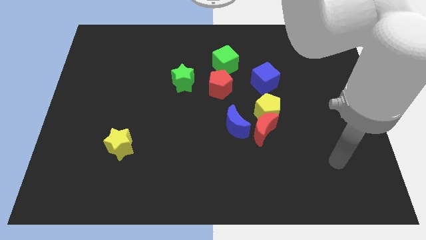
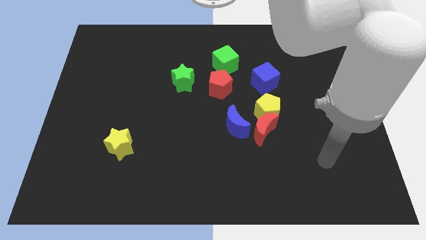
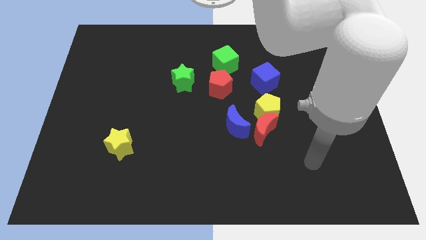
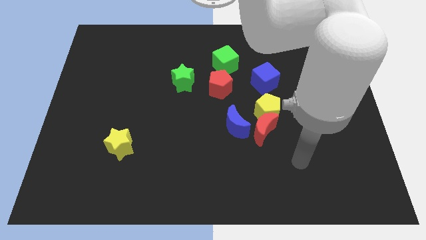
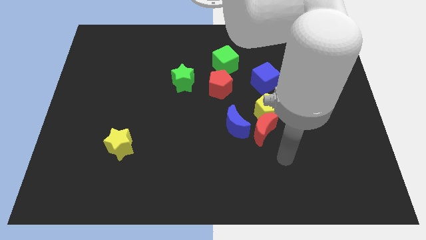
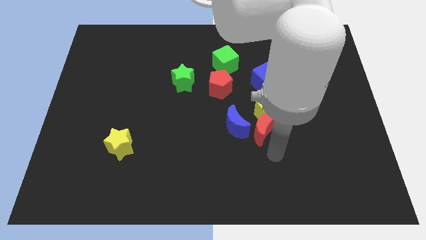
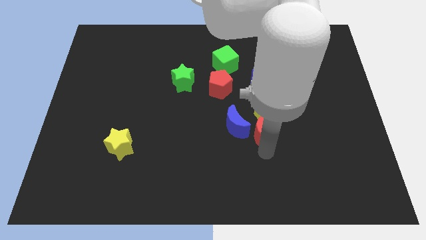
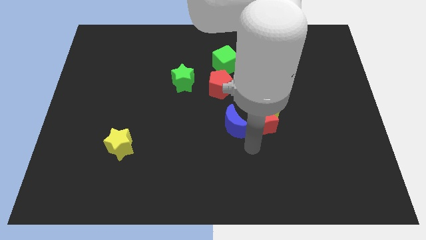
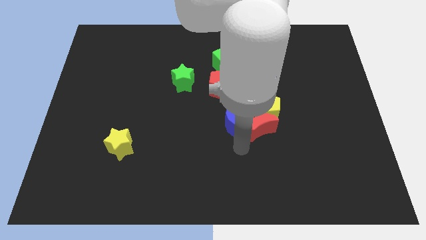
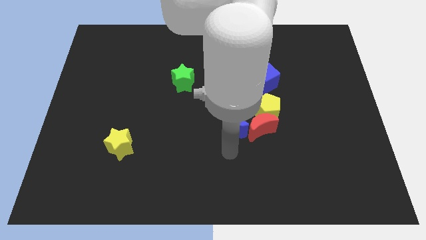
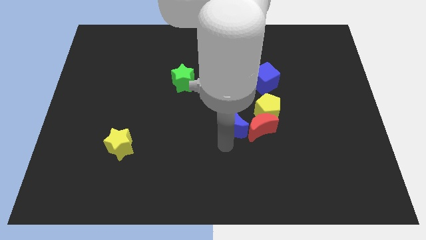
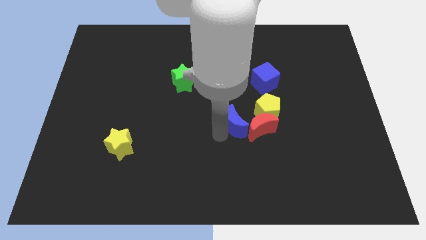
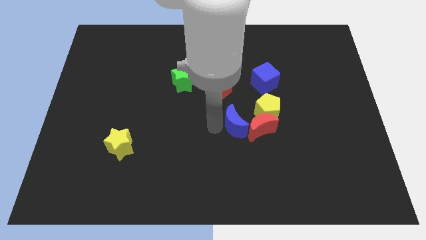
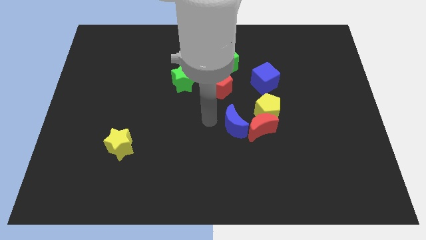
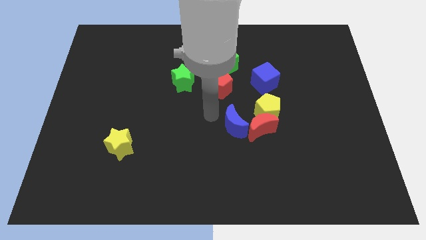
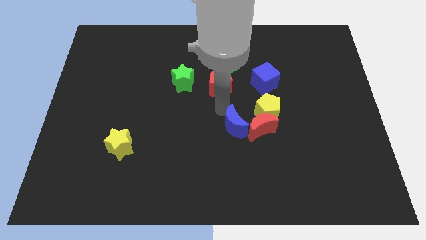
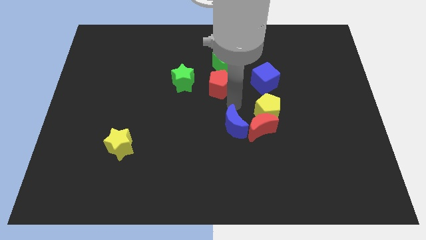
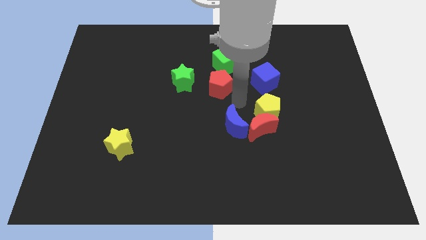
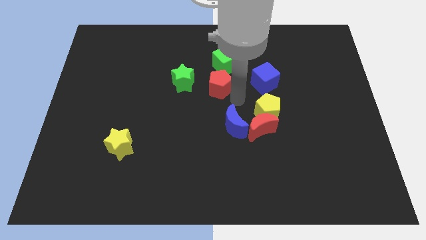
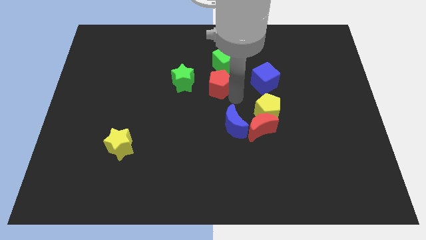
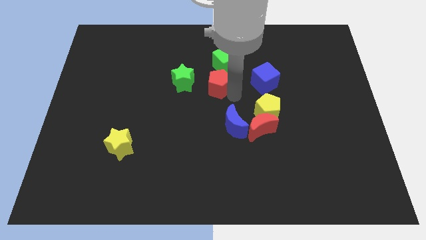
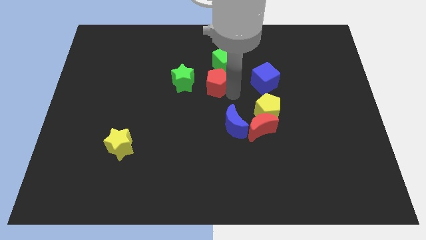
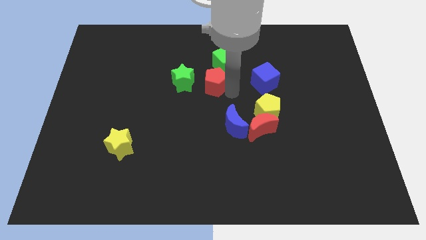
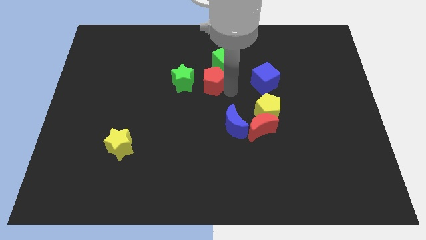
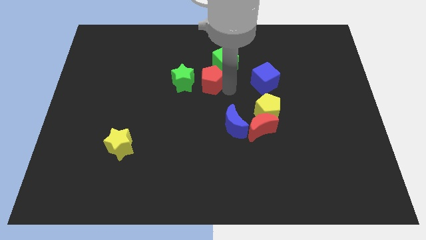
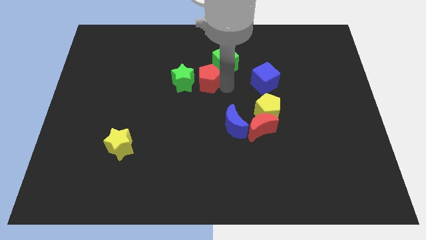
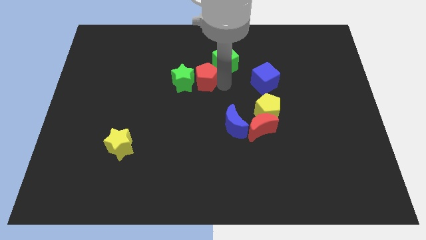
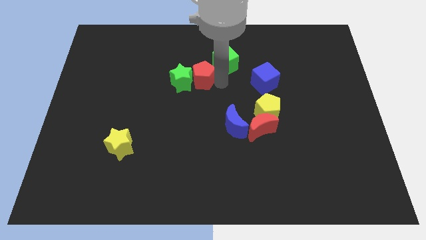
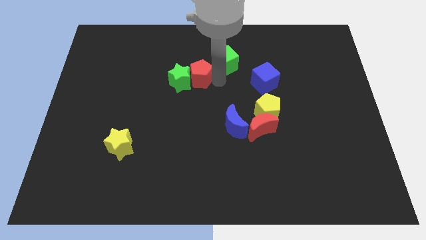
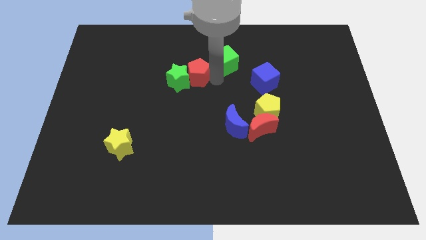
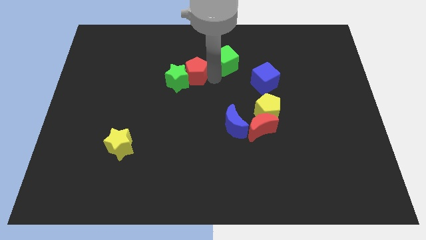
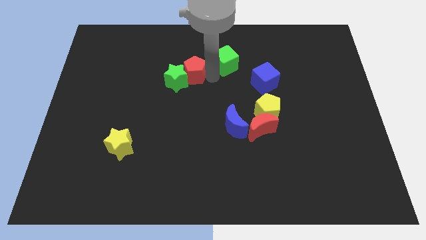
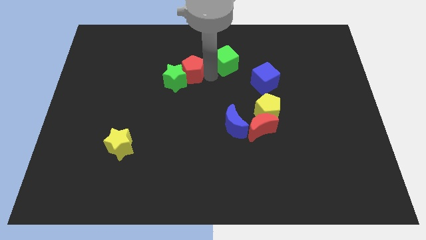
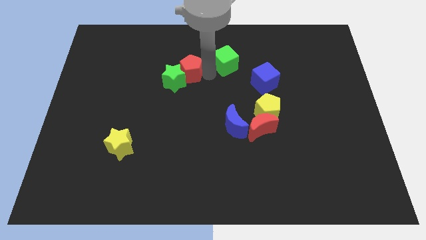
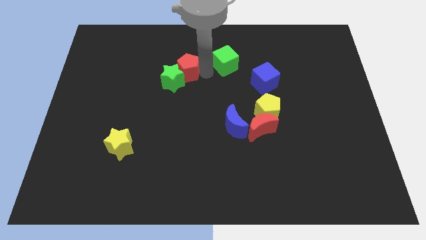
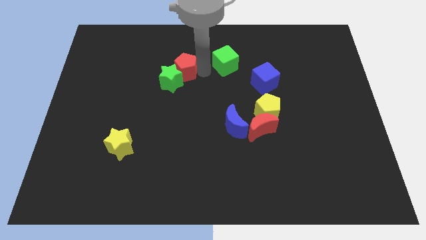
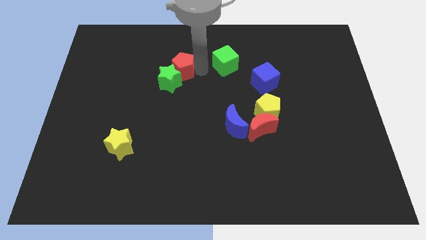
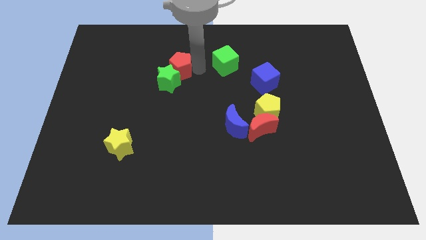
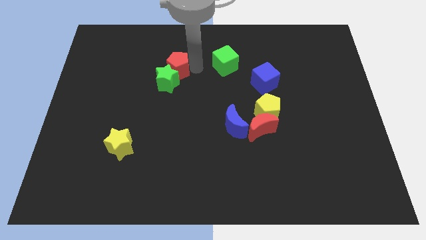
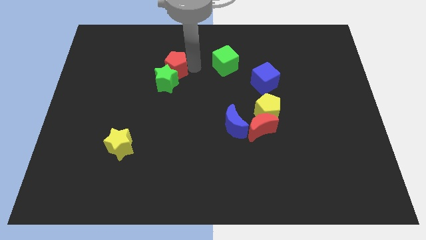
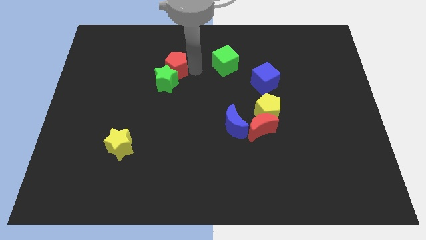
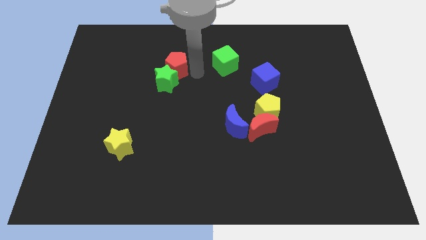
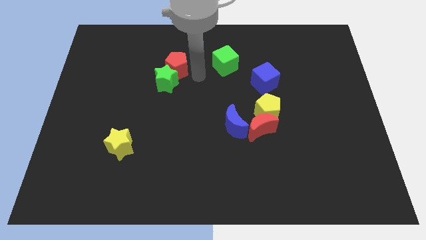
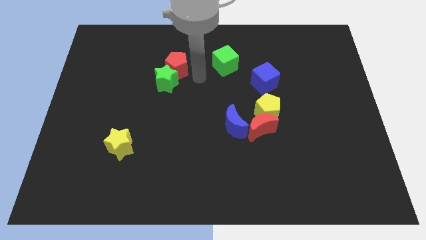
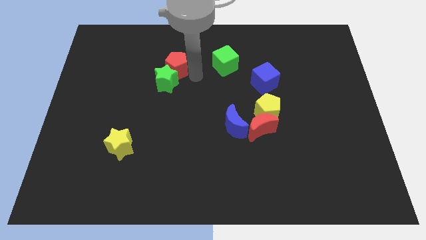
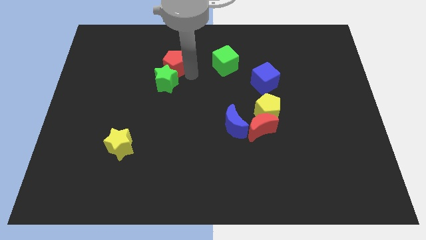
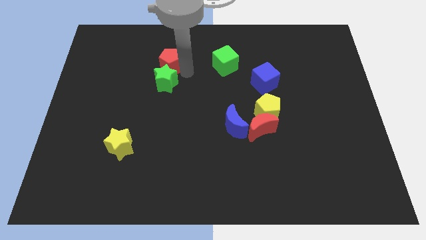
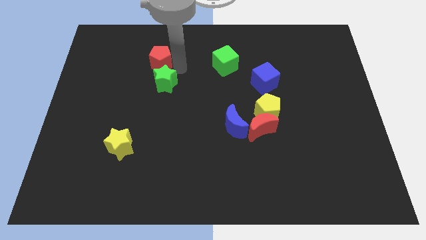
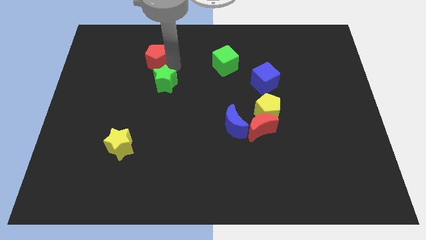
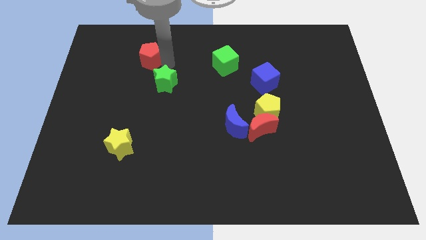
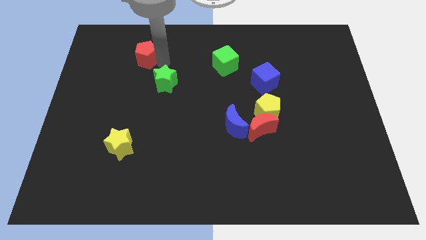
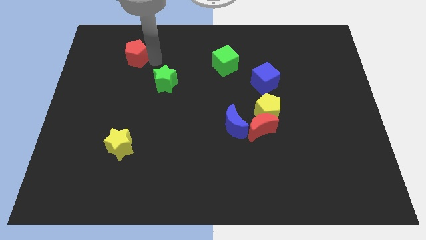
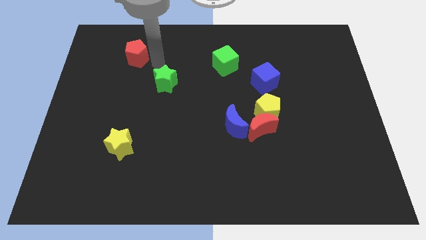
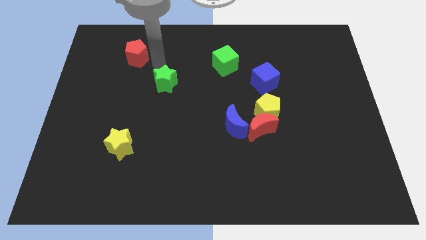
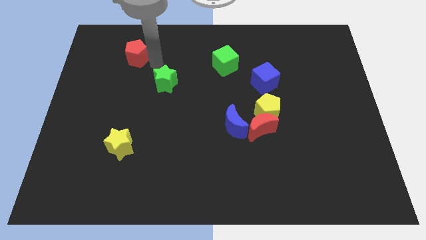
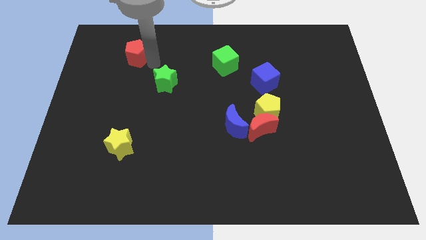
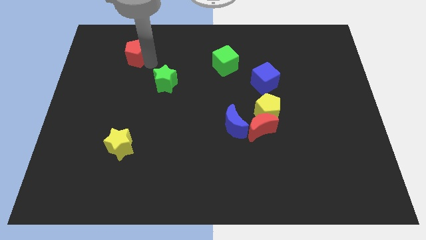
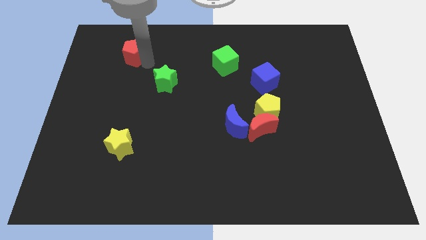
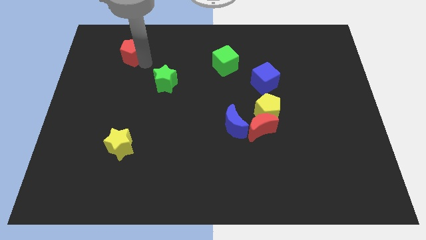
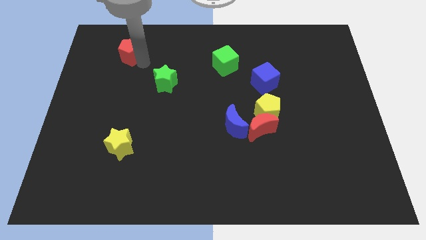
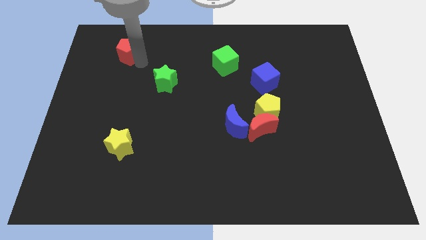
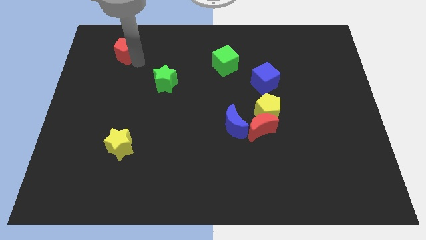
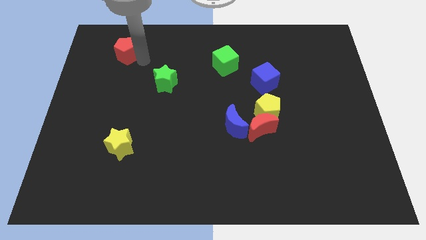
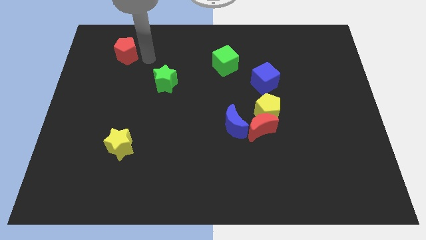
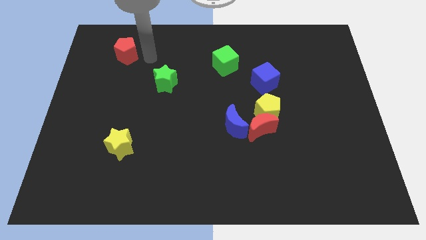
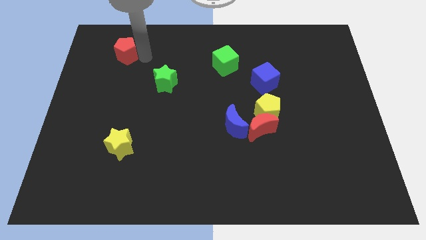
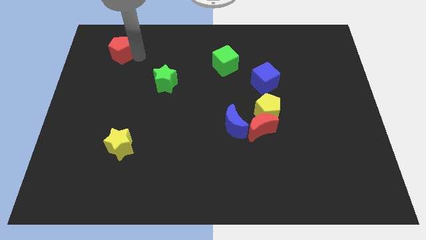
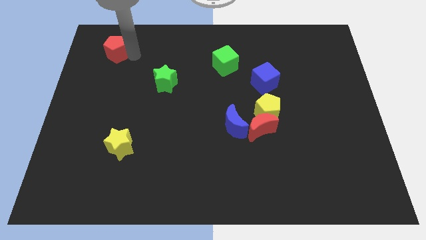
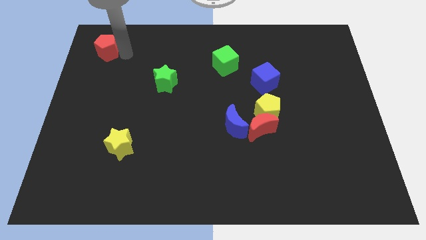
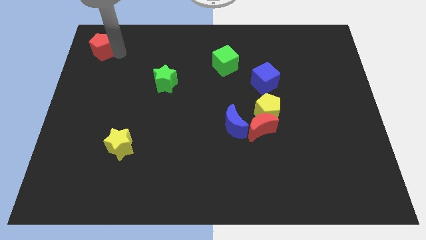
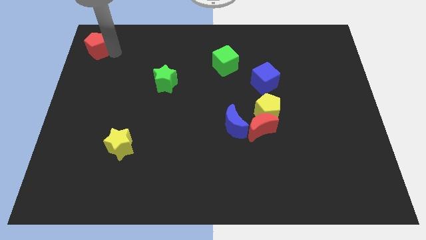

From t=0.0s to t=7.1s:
move the red pentagon to the top left
